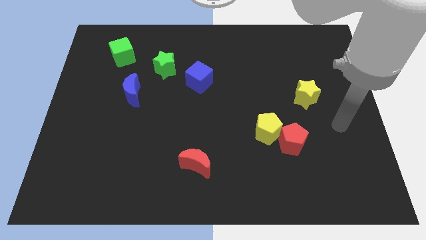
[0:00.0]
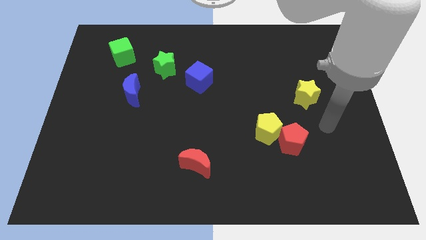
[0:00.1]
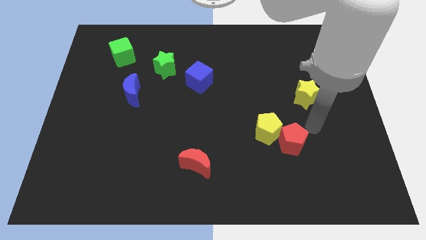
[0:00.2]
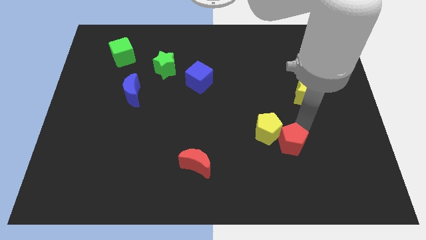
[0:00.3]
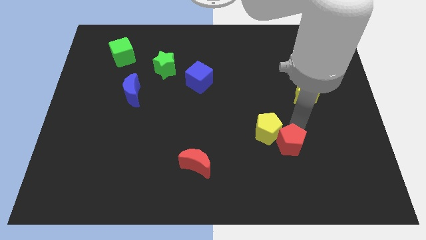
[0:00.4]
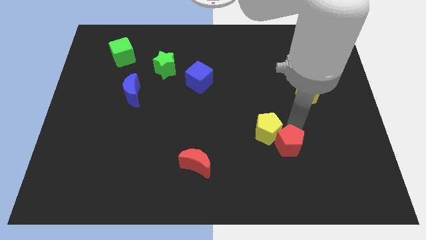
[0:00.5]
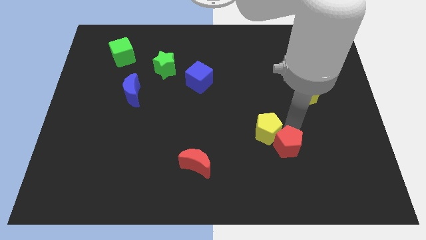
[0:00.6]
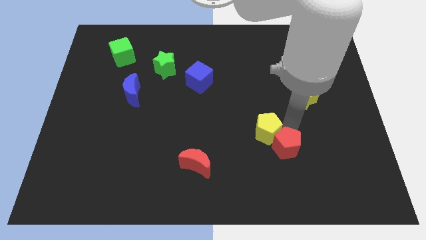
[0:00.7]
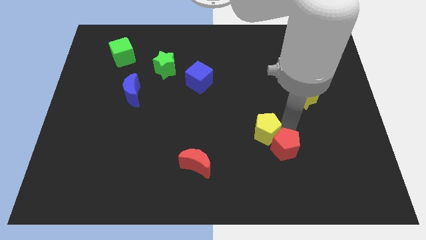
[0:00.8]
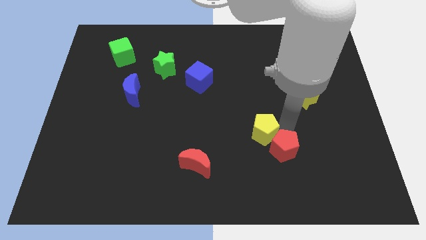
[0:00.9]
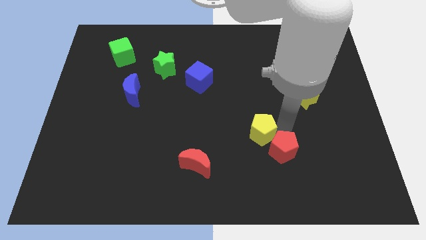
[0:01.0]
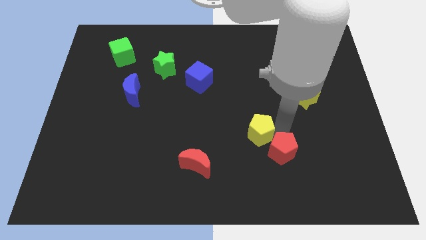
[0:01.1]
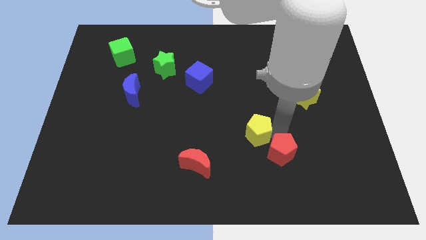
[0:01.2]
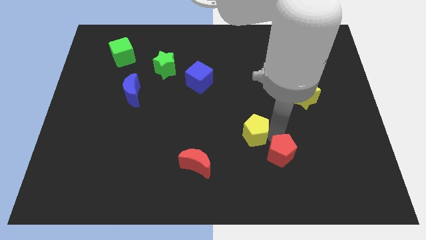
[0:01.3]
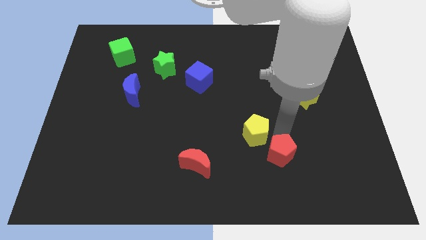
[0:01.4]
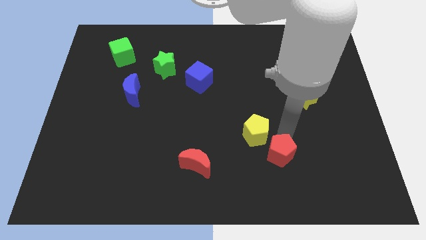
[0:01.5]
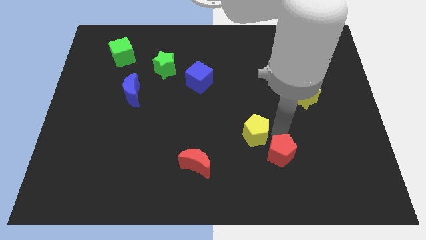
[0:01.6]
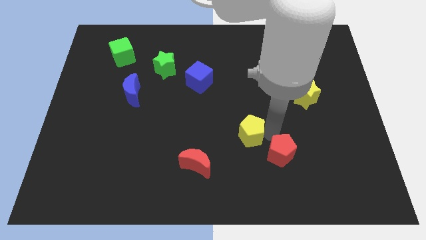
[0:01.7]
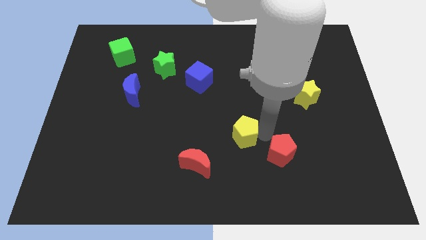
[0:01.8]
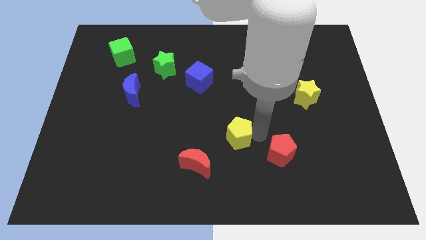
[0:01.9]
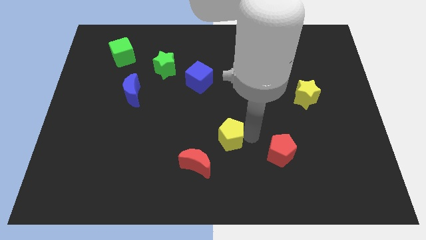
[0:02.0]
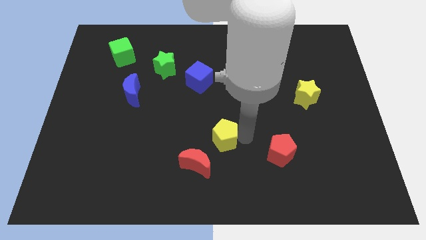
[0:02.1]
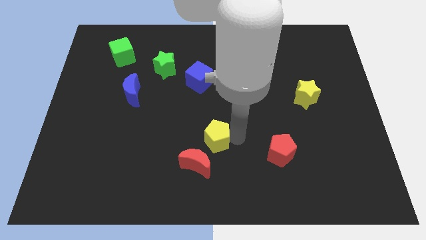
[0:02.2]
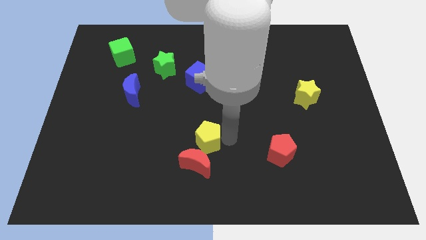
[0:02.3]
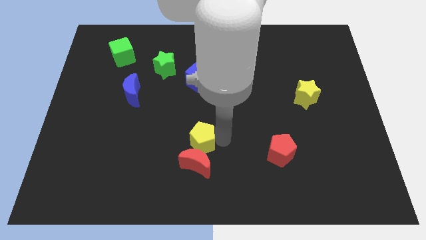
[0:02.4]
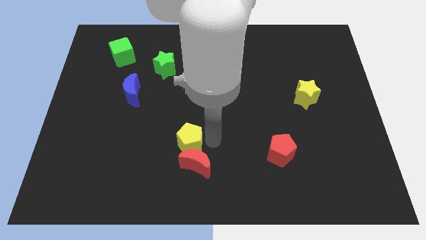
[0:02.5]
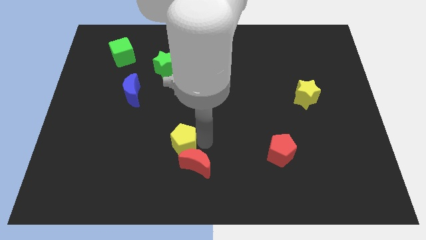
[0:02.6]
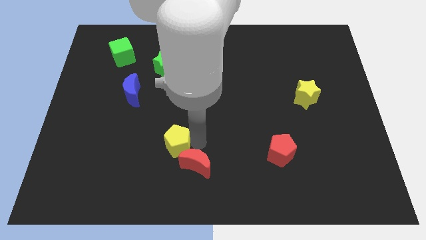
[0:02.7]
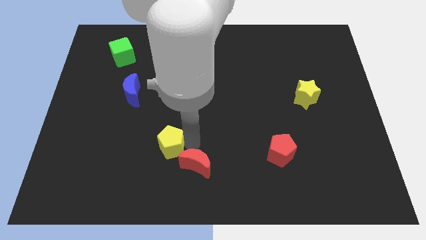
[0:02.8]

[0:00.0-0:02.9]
move the yellow pentagon left

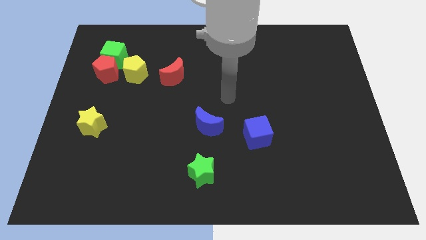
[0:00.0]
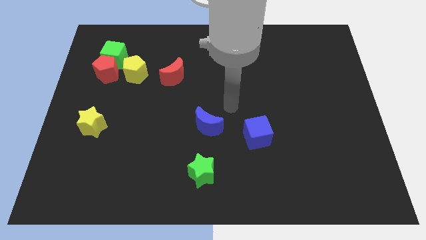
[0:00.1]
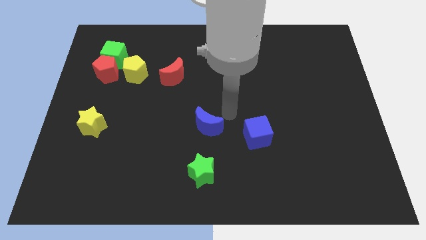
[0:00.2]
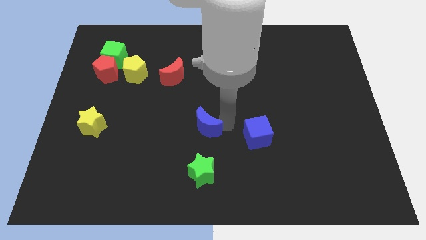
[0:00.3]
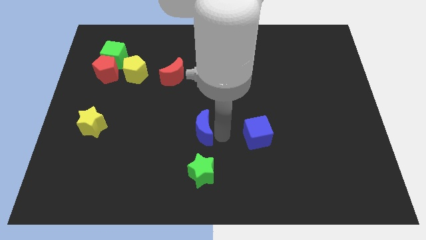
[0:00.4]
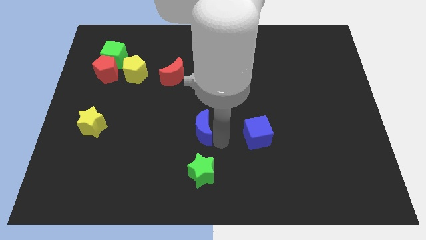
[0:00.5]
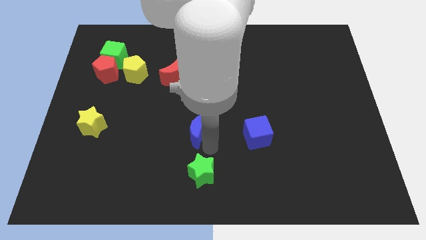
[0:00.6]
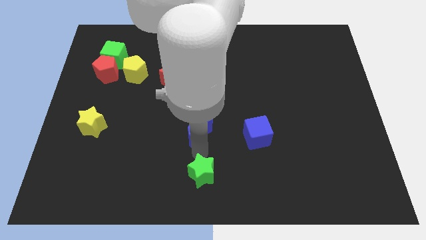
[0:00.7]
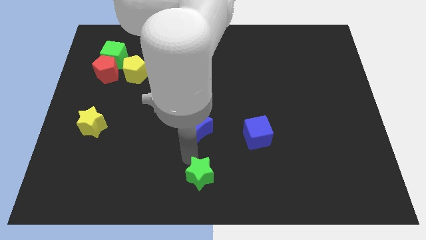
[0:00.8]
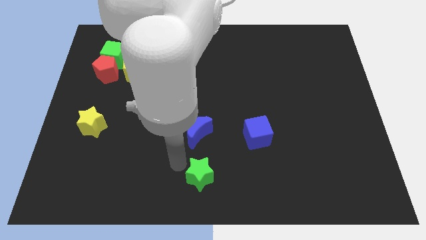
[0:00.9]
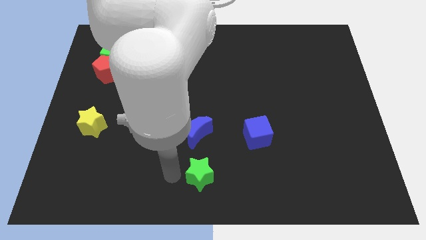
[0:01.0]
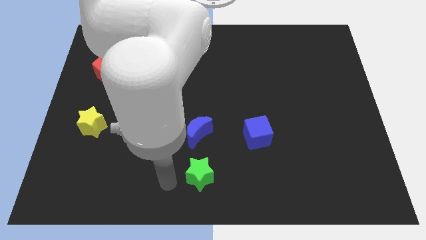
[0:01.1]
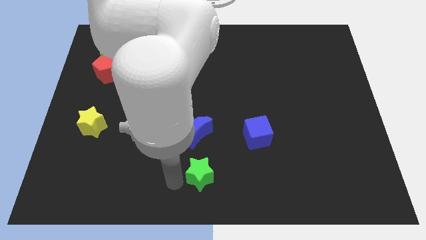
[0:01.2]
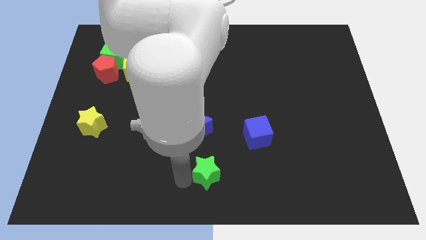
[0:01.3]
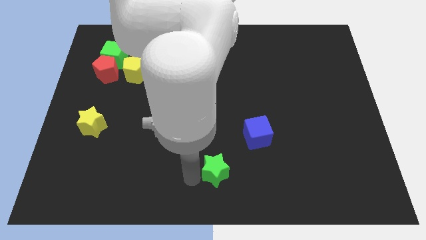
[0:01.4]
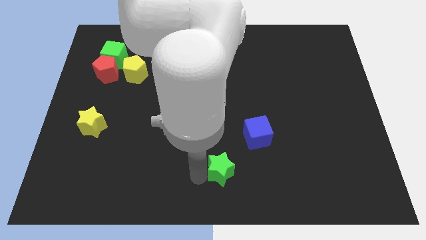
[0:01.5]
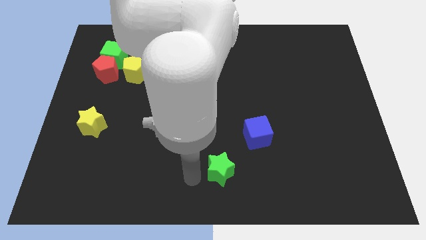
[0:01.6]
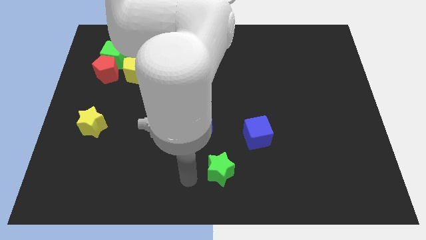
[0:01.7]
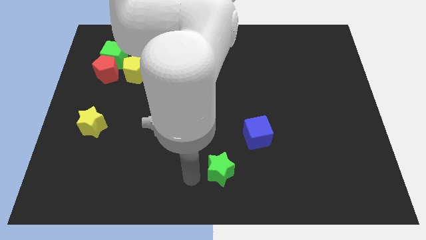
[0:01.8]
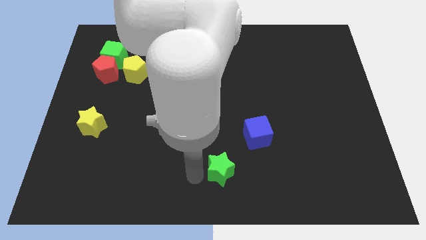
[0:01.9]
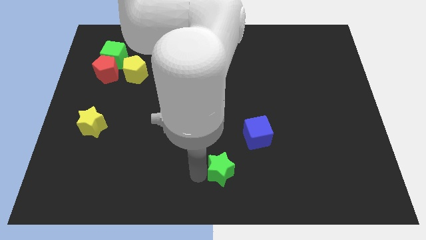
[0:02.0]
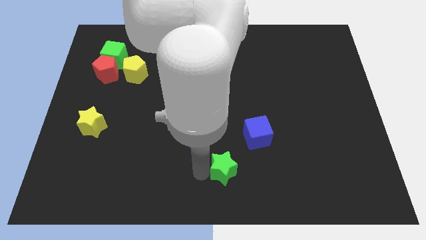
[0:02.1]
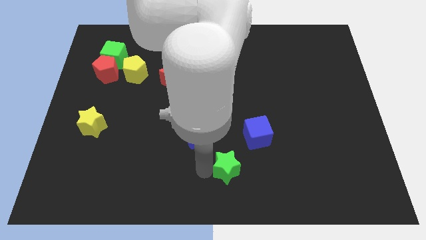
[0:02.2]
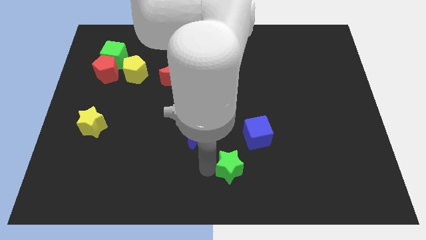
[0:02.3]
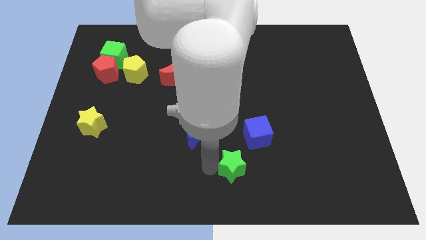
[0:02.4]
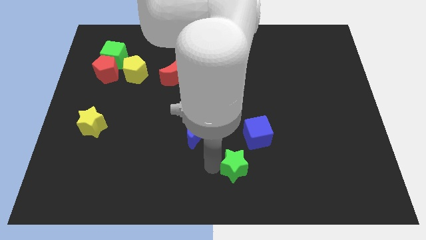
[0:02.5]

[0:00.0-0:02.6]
slightly move the green star to the right

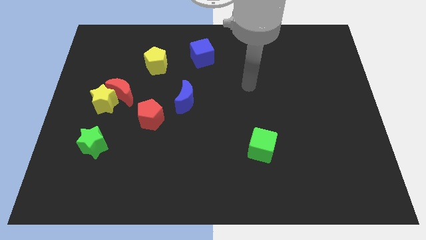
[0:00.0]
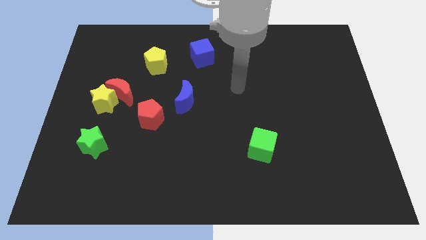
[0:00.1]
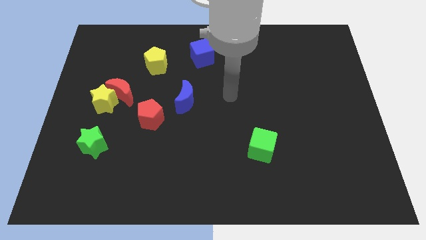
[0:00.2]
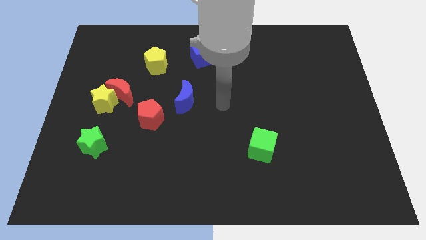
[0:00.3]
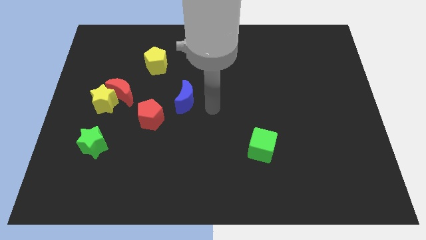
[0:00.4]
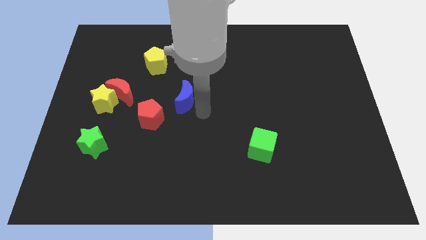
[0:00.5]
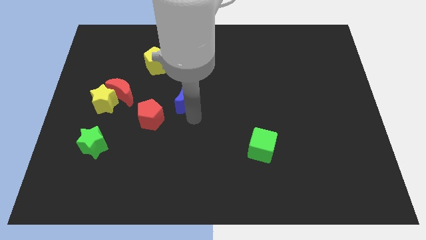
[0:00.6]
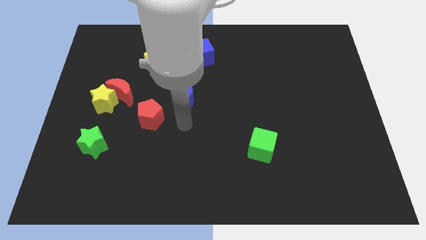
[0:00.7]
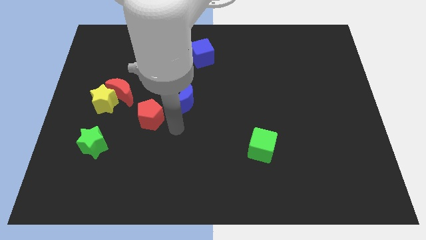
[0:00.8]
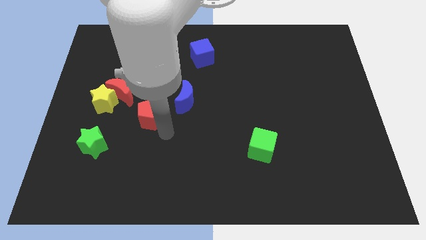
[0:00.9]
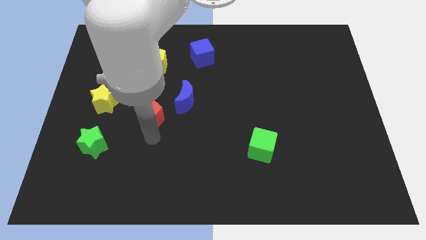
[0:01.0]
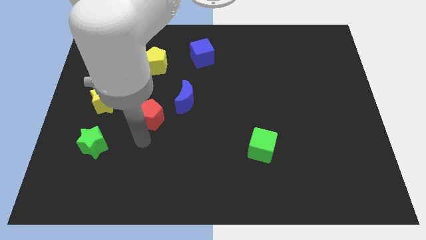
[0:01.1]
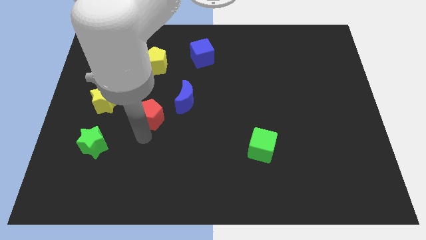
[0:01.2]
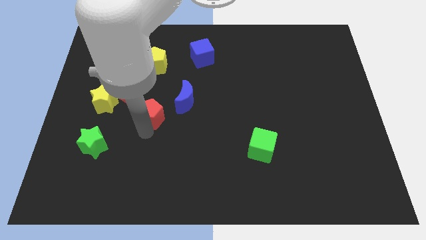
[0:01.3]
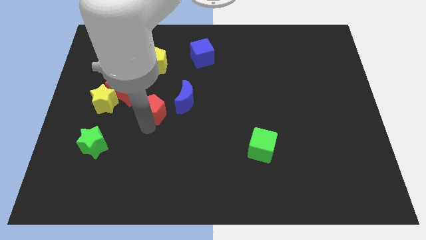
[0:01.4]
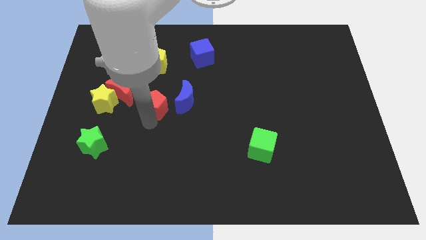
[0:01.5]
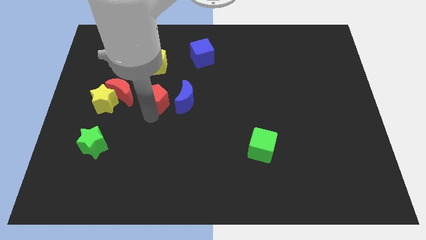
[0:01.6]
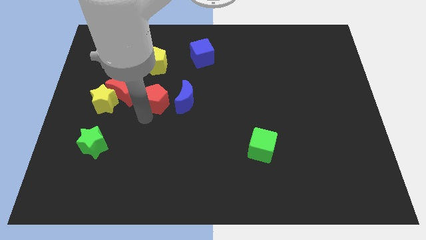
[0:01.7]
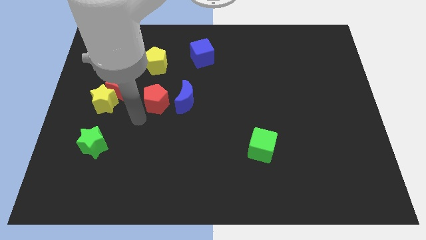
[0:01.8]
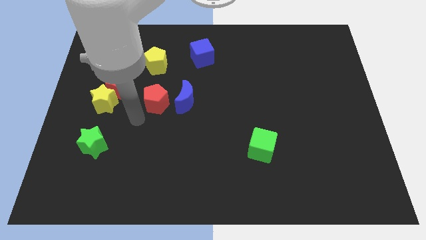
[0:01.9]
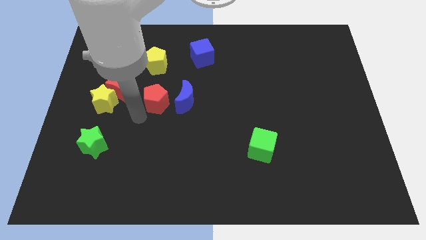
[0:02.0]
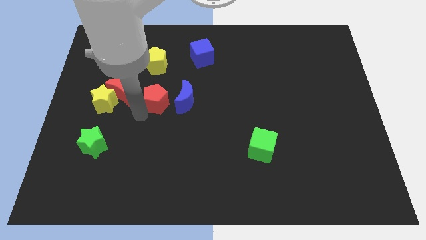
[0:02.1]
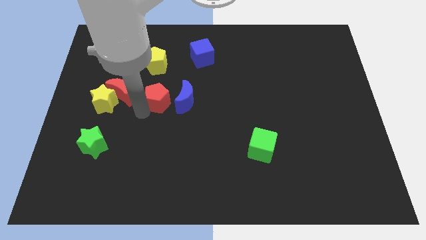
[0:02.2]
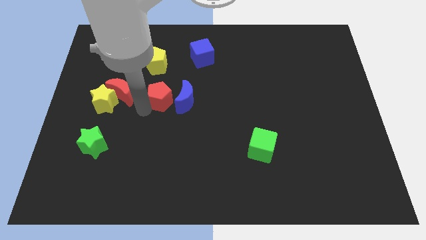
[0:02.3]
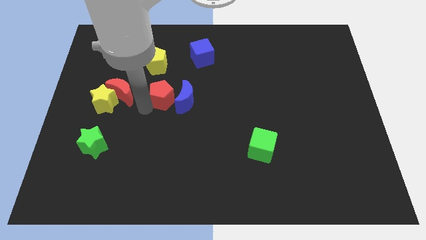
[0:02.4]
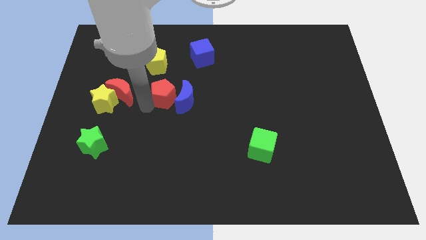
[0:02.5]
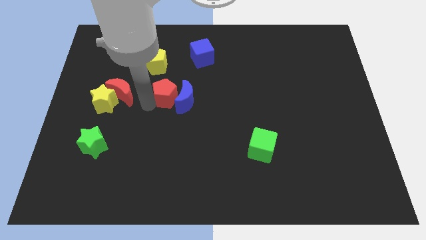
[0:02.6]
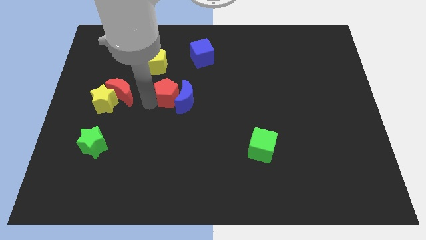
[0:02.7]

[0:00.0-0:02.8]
slightly push the red pentagon up and to the right
